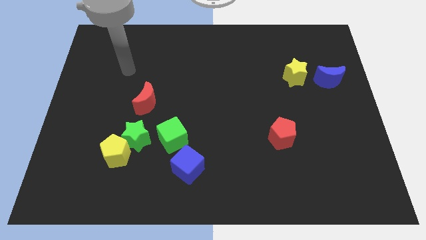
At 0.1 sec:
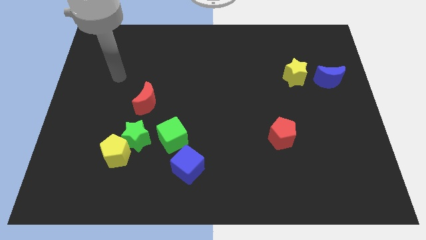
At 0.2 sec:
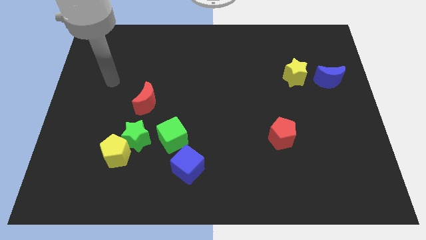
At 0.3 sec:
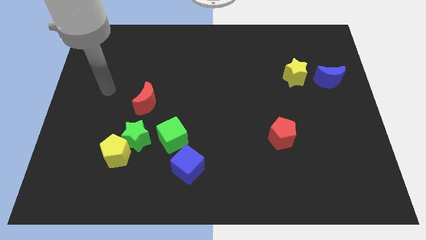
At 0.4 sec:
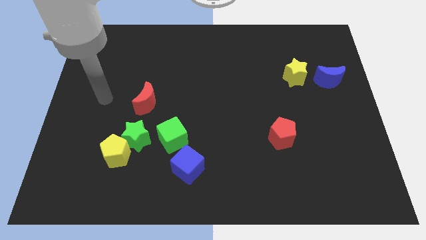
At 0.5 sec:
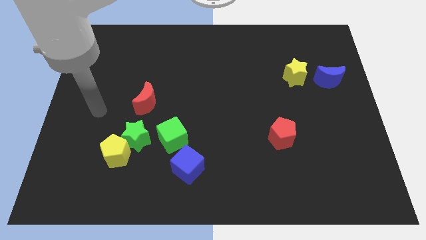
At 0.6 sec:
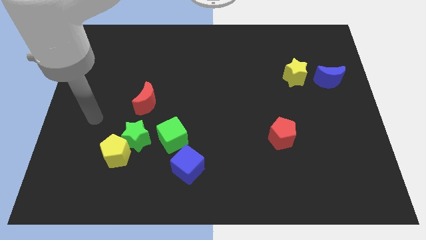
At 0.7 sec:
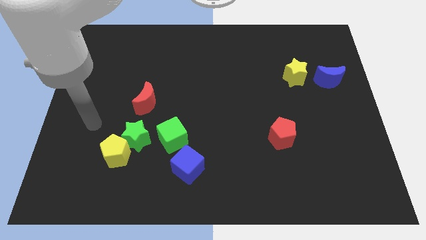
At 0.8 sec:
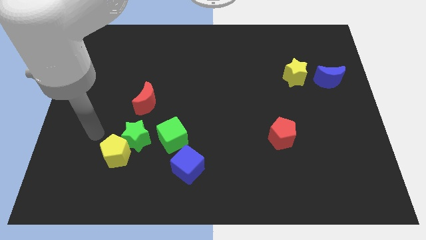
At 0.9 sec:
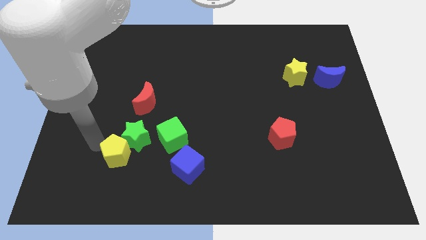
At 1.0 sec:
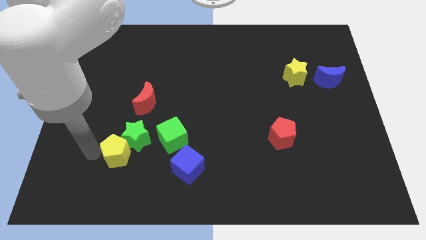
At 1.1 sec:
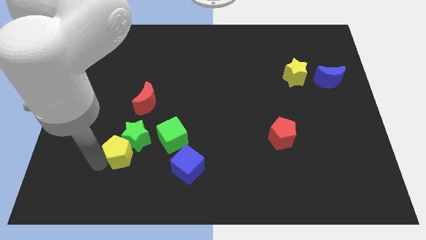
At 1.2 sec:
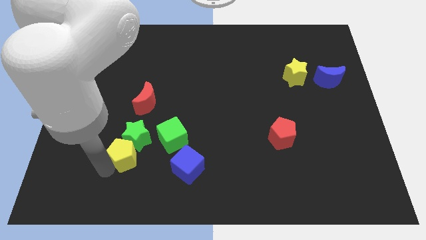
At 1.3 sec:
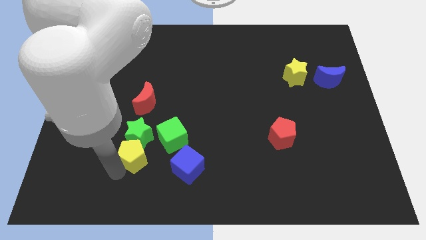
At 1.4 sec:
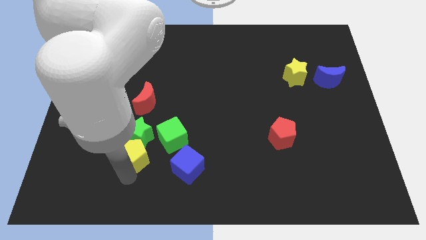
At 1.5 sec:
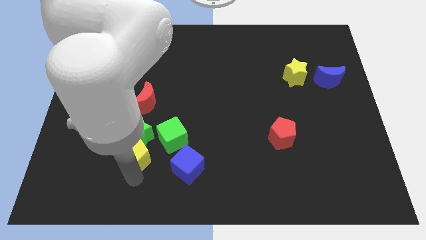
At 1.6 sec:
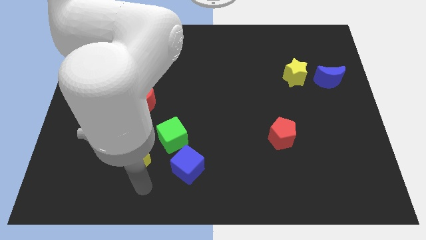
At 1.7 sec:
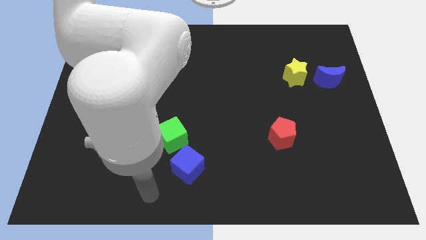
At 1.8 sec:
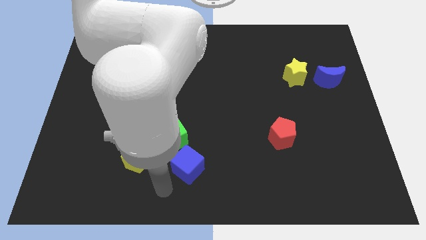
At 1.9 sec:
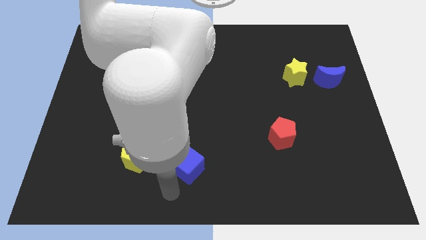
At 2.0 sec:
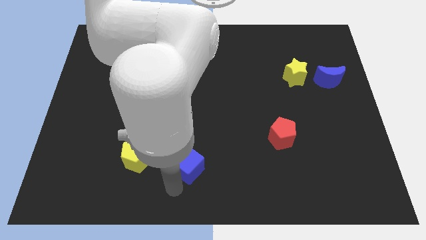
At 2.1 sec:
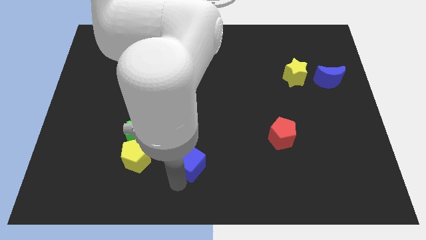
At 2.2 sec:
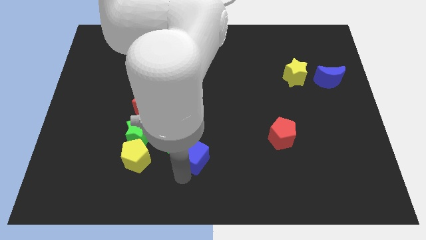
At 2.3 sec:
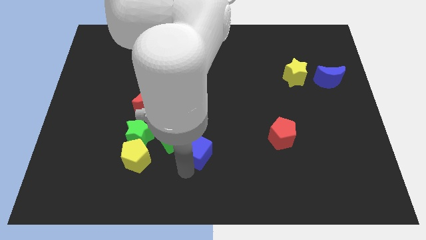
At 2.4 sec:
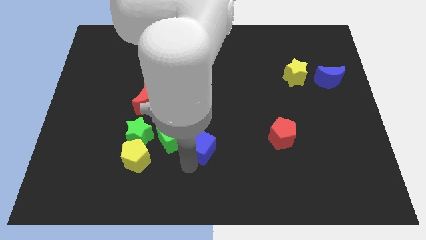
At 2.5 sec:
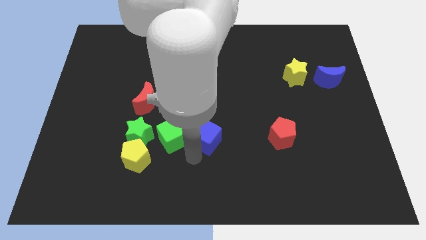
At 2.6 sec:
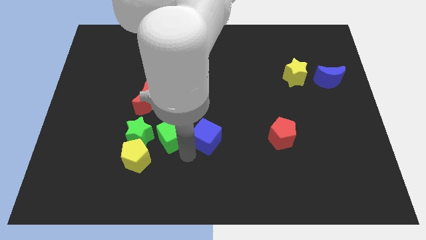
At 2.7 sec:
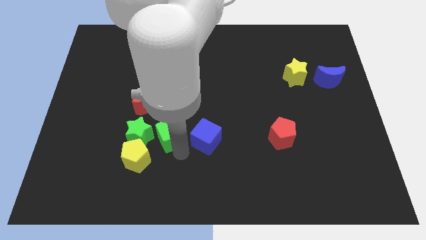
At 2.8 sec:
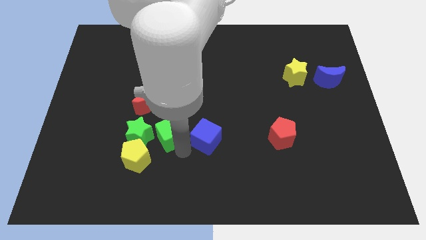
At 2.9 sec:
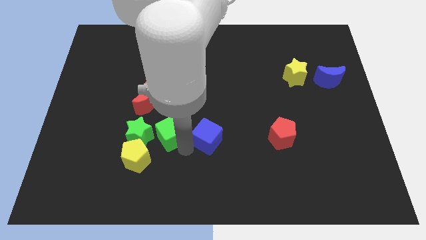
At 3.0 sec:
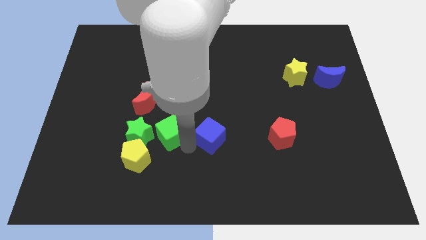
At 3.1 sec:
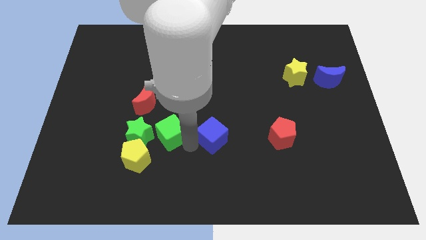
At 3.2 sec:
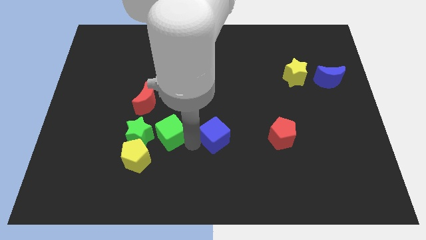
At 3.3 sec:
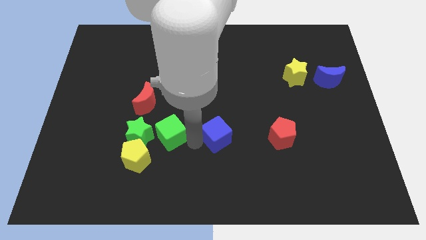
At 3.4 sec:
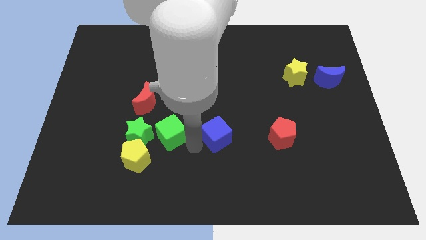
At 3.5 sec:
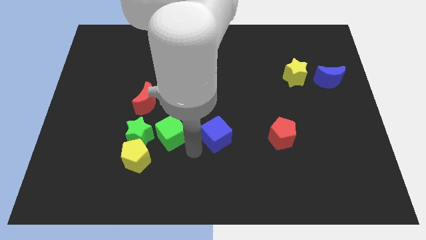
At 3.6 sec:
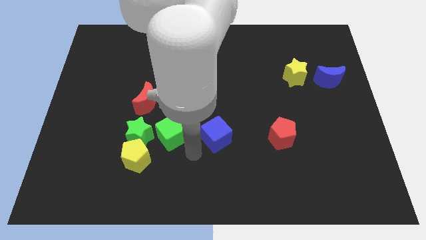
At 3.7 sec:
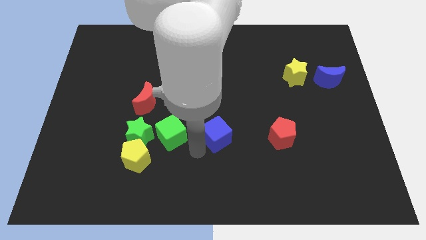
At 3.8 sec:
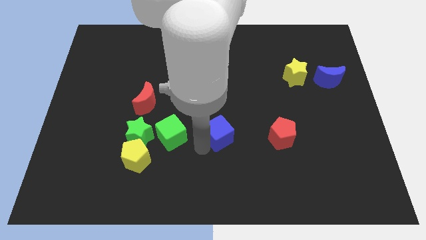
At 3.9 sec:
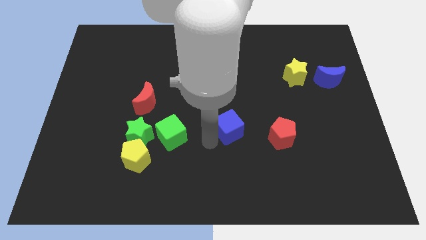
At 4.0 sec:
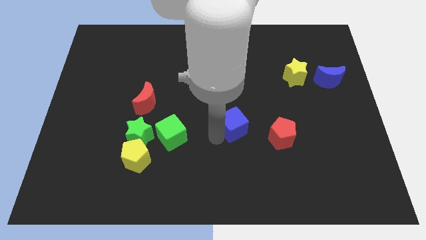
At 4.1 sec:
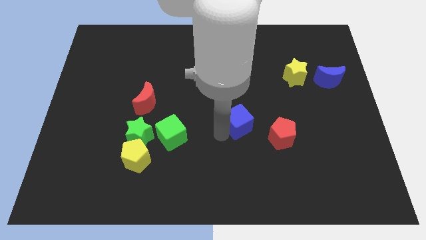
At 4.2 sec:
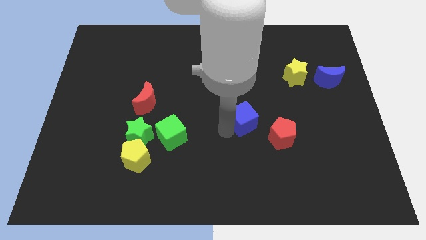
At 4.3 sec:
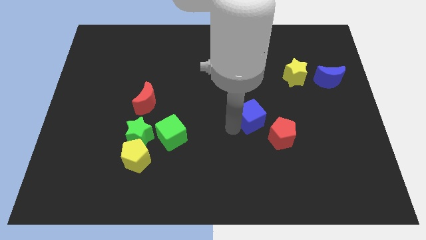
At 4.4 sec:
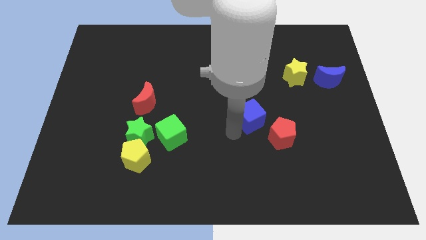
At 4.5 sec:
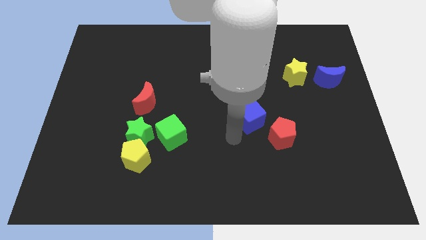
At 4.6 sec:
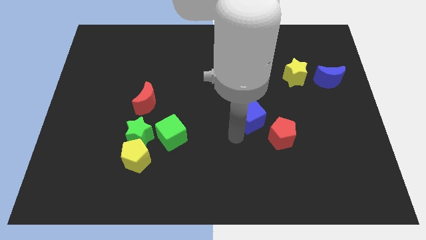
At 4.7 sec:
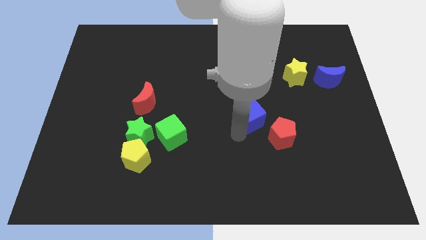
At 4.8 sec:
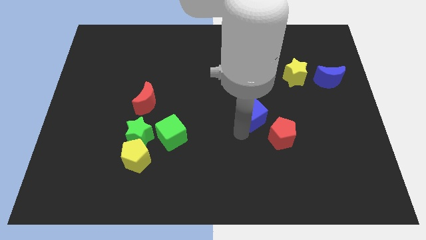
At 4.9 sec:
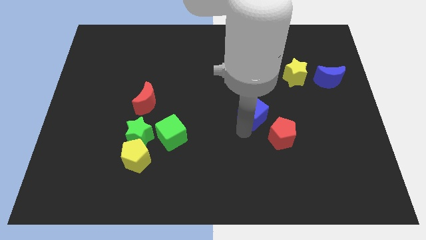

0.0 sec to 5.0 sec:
slide the blue cube up and right

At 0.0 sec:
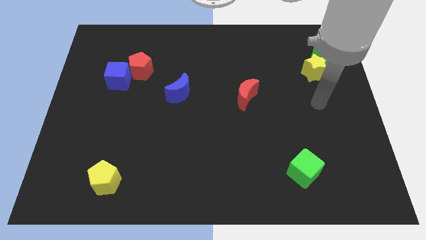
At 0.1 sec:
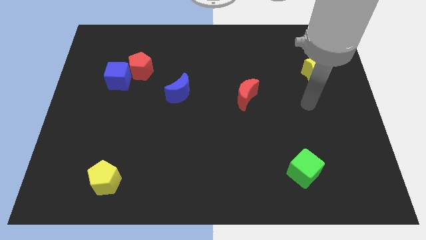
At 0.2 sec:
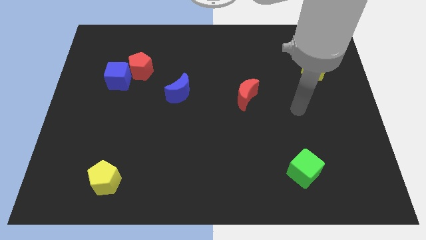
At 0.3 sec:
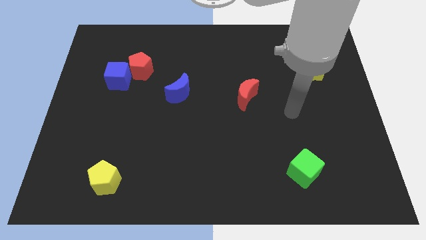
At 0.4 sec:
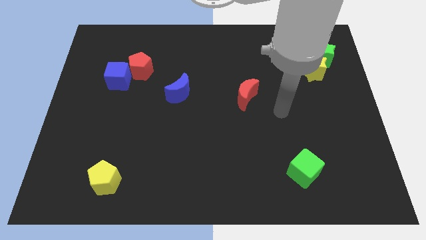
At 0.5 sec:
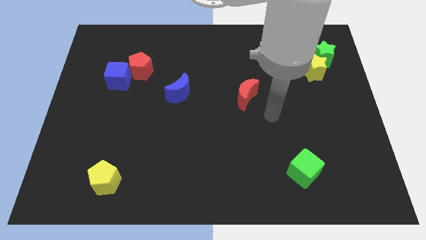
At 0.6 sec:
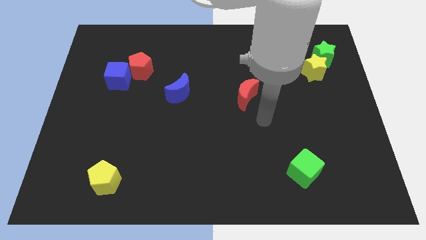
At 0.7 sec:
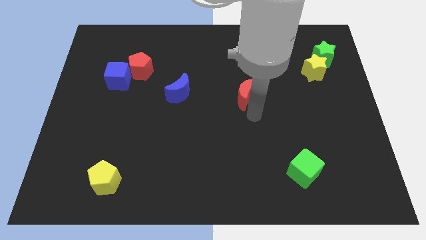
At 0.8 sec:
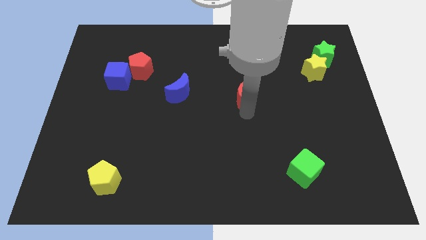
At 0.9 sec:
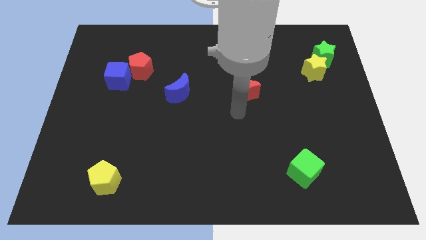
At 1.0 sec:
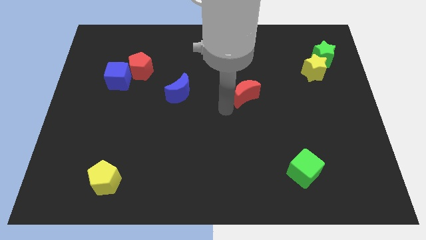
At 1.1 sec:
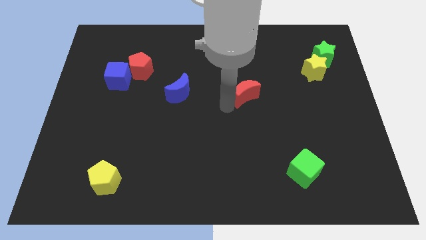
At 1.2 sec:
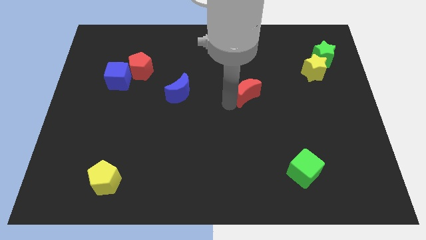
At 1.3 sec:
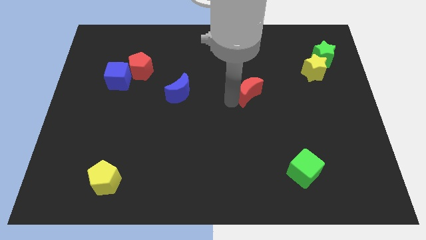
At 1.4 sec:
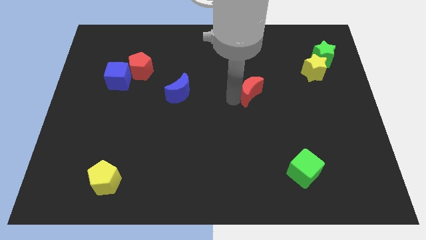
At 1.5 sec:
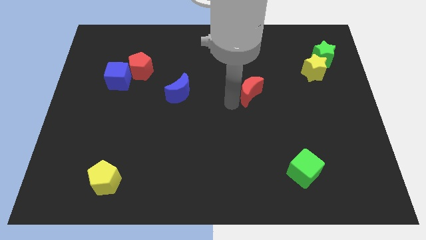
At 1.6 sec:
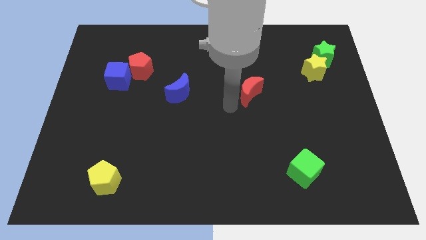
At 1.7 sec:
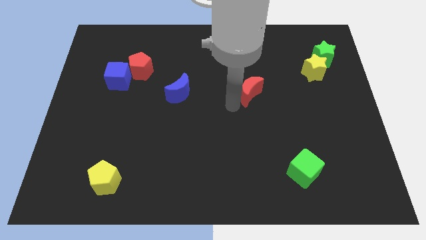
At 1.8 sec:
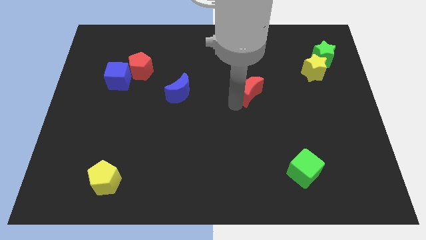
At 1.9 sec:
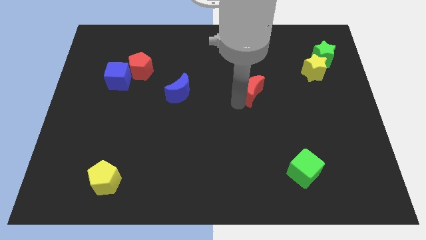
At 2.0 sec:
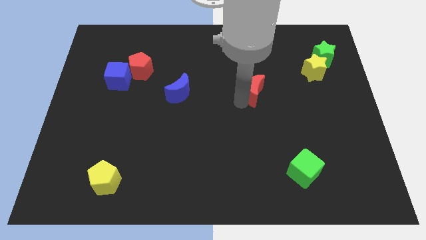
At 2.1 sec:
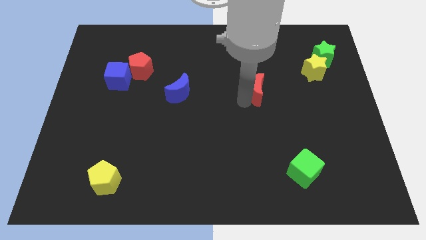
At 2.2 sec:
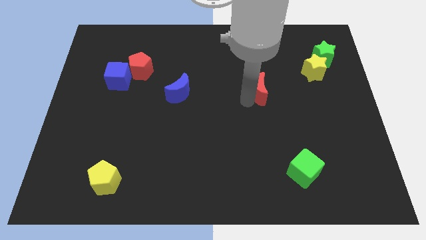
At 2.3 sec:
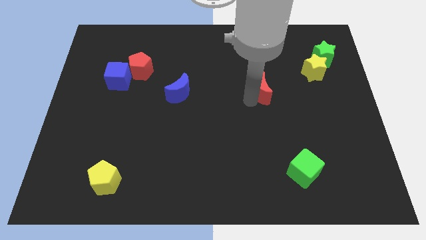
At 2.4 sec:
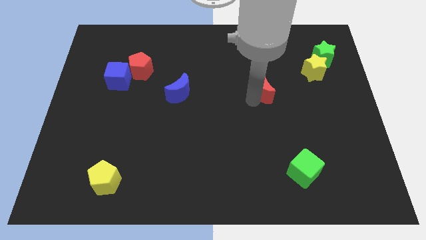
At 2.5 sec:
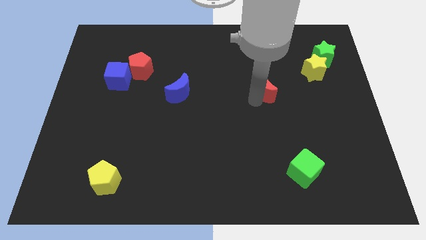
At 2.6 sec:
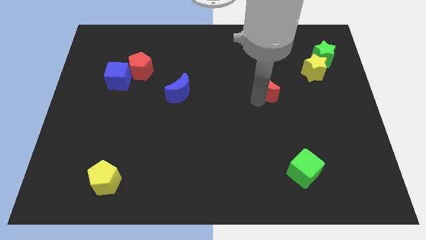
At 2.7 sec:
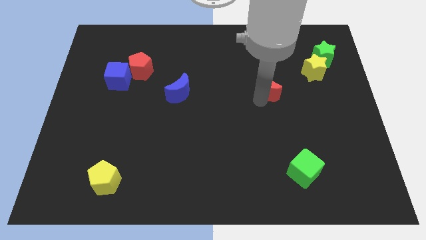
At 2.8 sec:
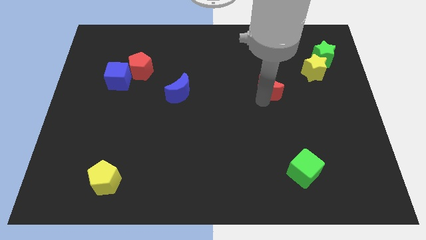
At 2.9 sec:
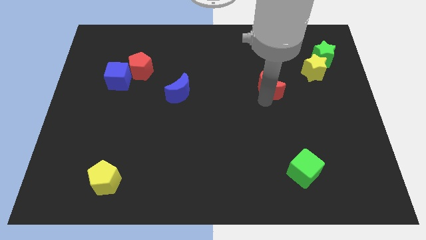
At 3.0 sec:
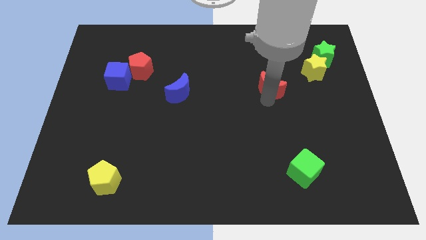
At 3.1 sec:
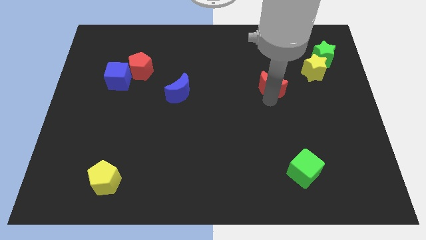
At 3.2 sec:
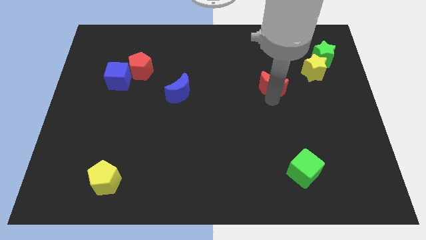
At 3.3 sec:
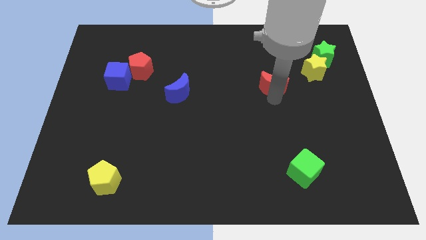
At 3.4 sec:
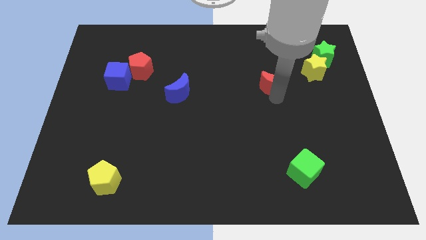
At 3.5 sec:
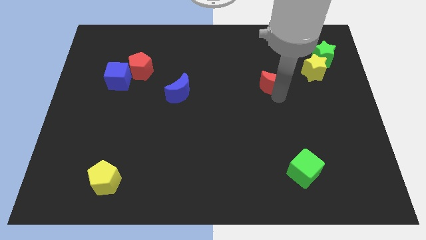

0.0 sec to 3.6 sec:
push the red moon up and to the right a little bit
